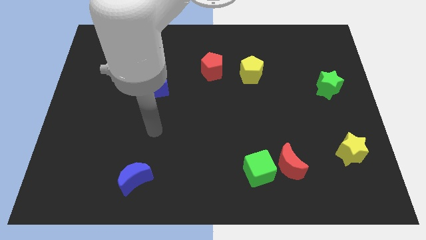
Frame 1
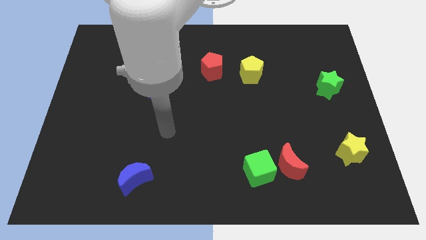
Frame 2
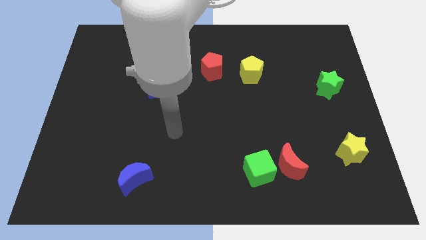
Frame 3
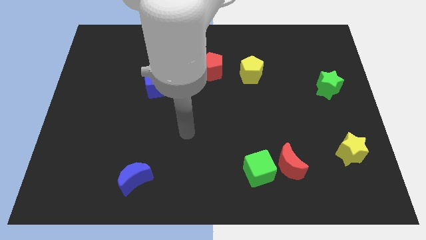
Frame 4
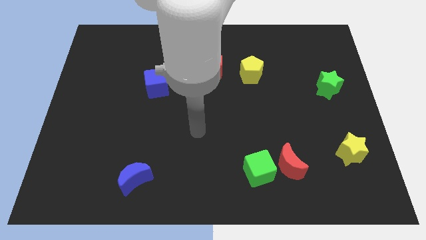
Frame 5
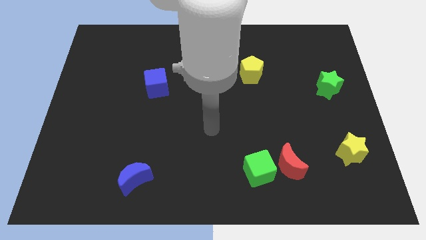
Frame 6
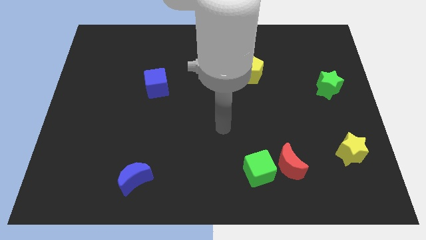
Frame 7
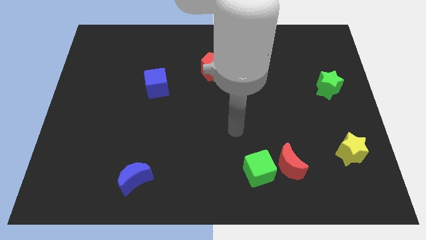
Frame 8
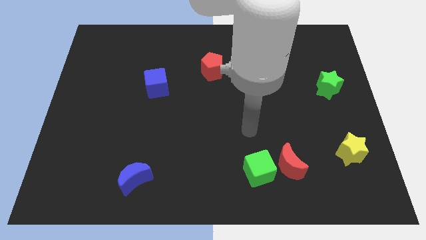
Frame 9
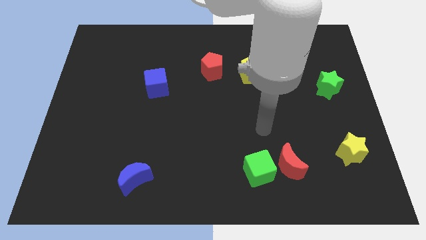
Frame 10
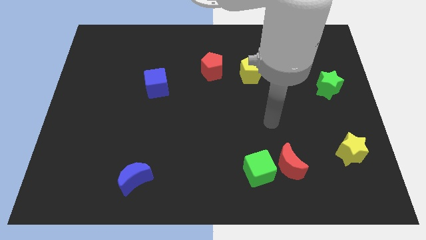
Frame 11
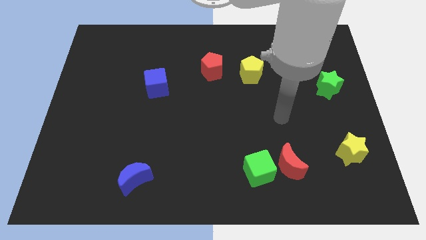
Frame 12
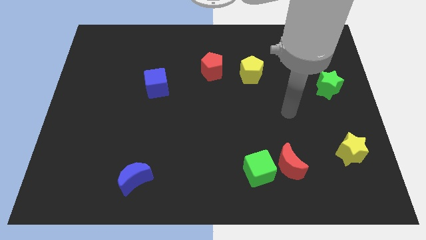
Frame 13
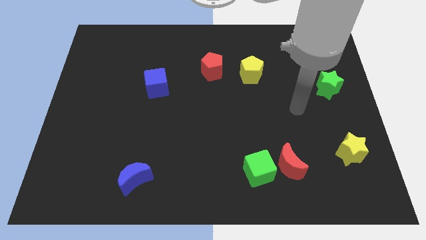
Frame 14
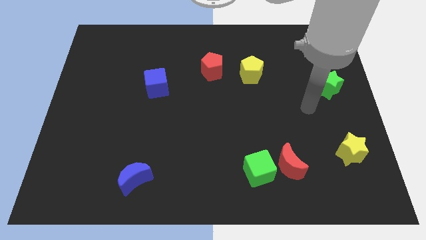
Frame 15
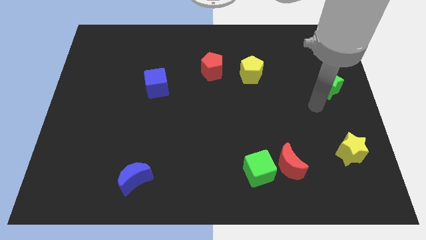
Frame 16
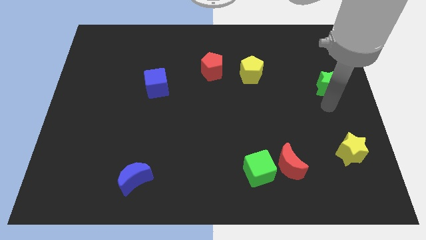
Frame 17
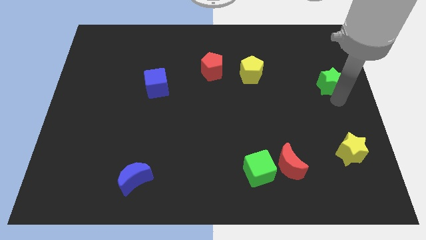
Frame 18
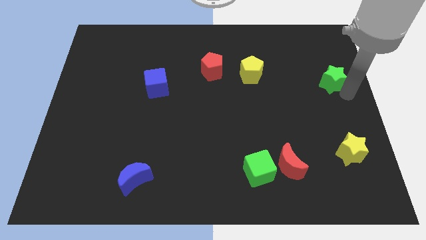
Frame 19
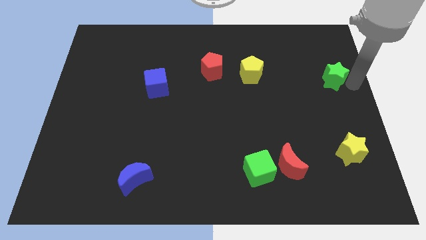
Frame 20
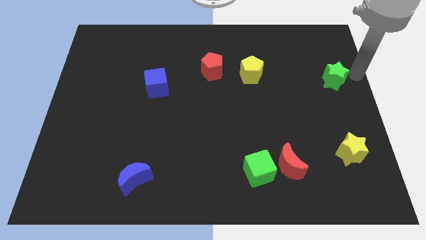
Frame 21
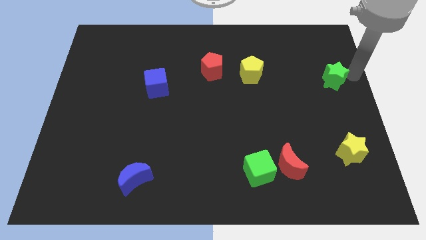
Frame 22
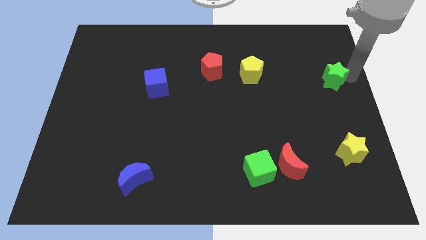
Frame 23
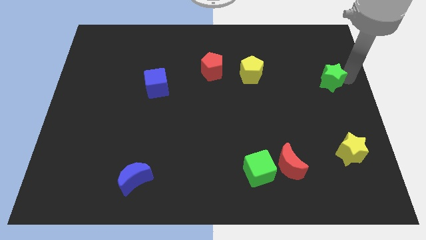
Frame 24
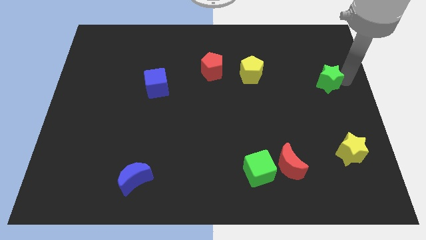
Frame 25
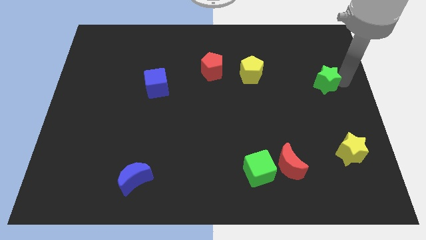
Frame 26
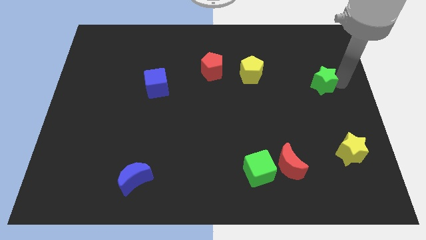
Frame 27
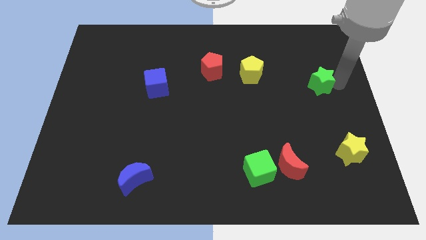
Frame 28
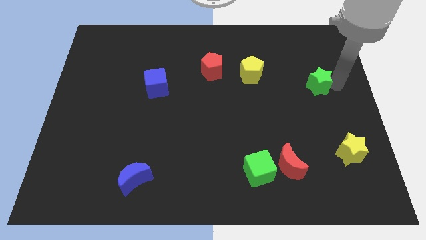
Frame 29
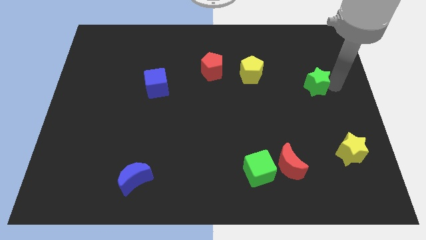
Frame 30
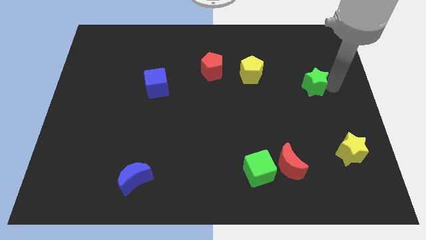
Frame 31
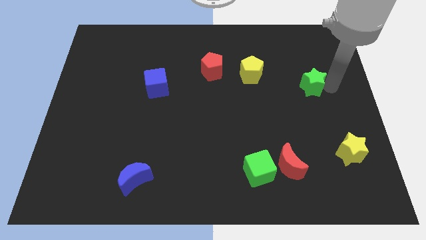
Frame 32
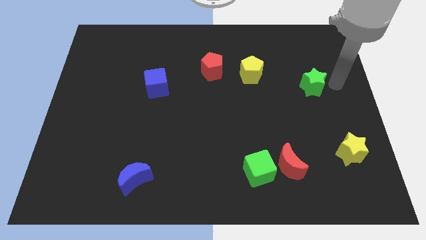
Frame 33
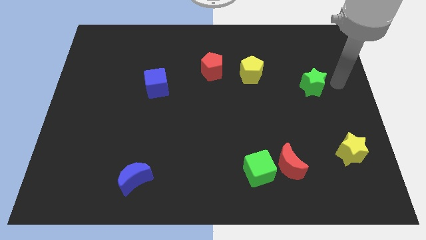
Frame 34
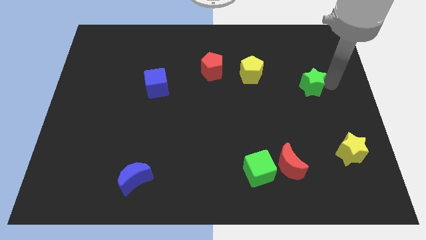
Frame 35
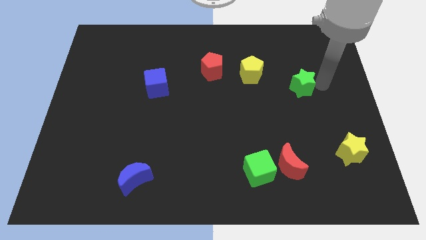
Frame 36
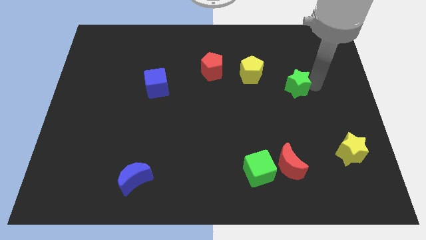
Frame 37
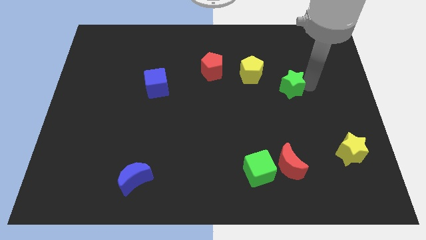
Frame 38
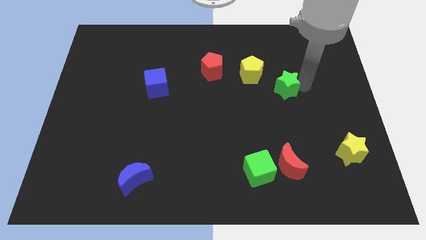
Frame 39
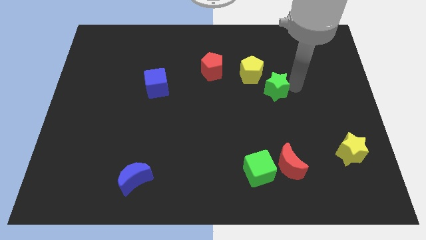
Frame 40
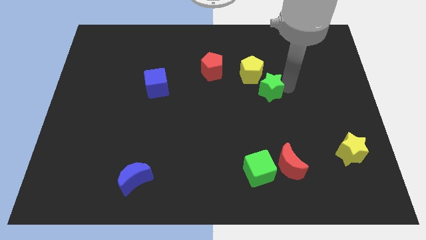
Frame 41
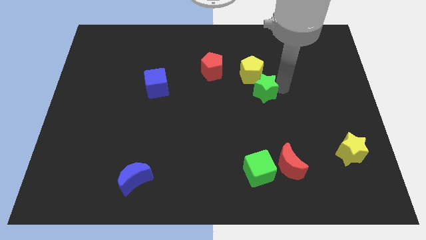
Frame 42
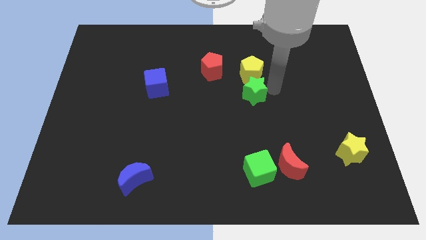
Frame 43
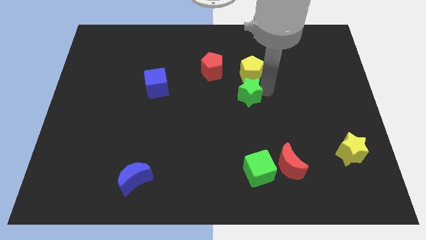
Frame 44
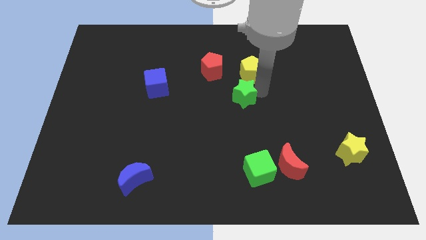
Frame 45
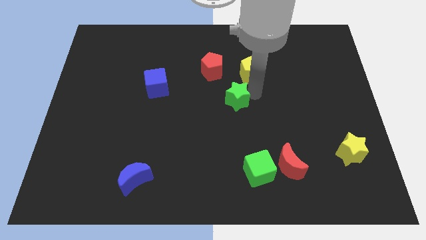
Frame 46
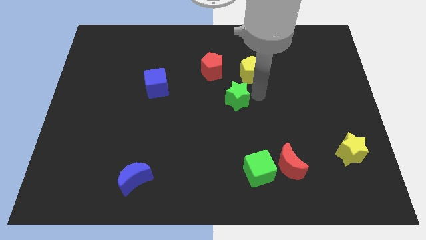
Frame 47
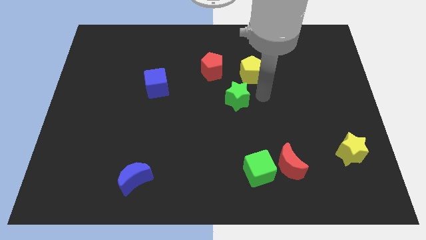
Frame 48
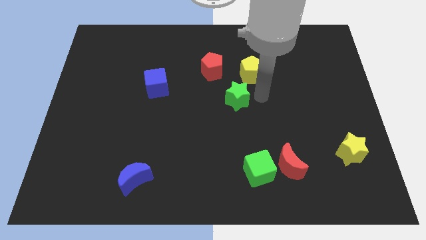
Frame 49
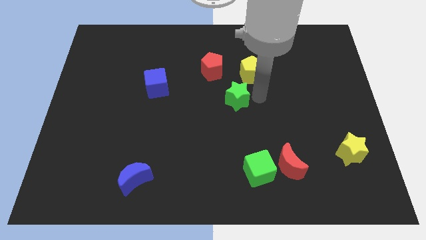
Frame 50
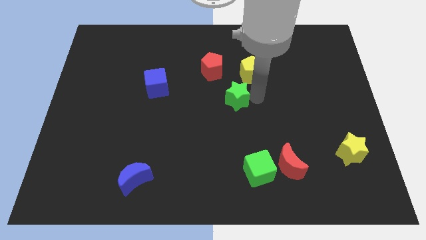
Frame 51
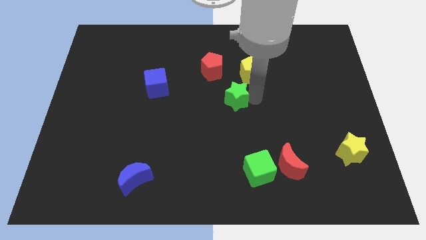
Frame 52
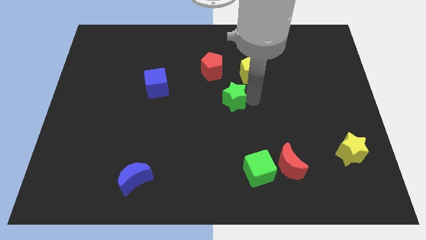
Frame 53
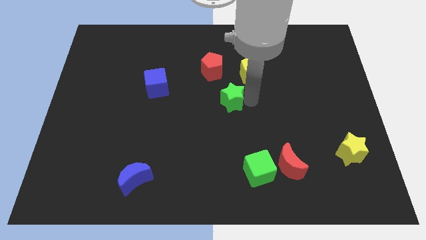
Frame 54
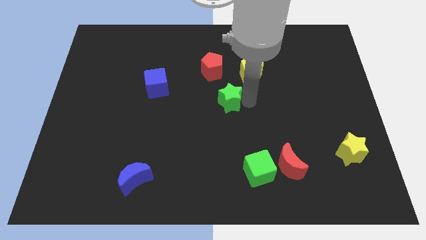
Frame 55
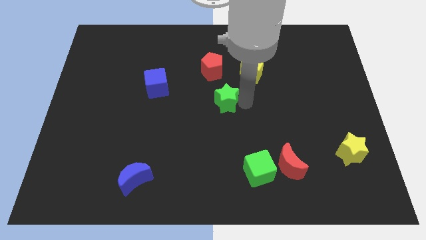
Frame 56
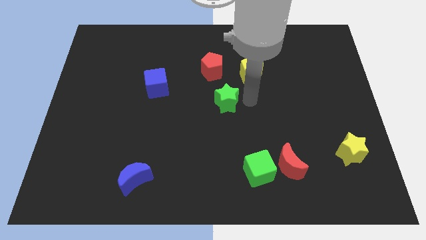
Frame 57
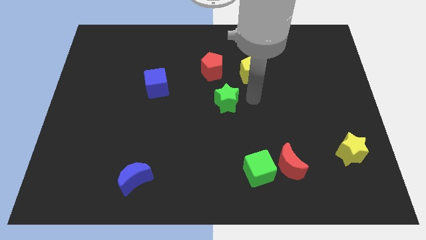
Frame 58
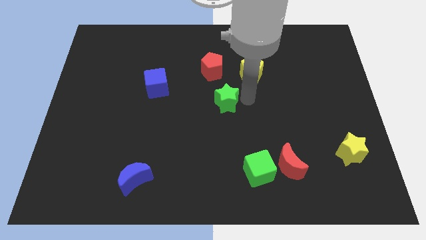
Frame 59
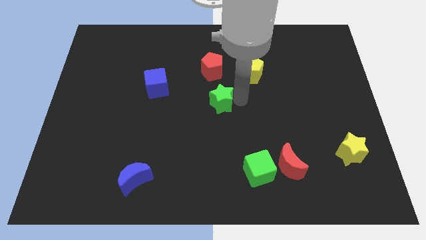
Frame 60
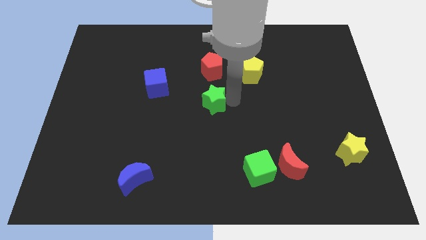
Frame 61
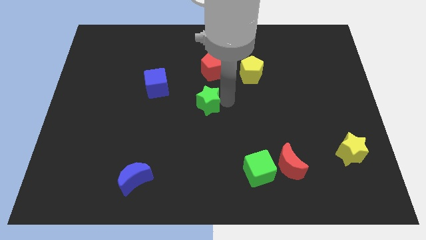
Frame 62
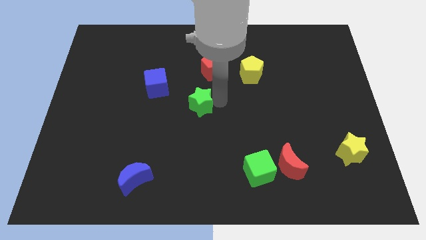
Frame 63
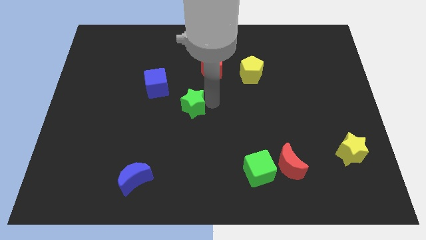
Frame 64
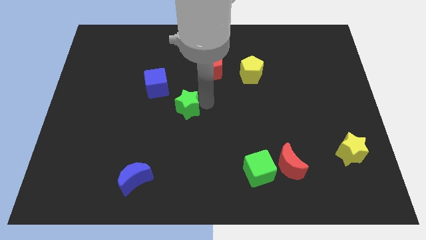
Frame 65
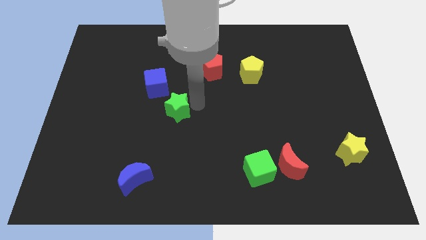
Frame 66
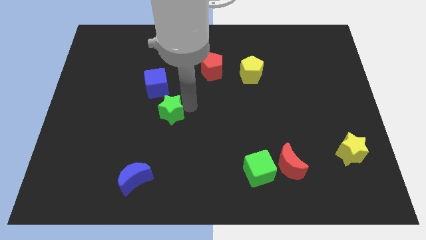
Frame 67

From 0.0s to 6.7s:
put the green star to the bottom of the blue cube

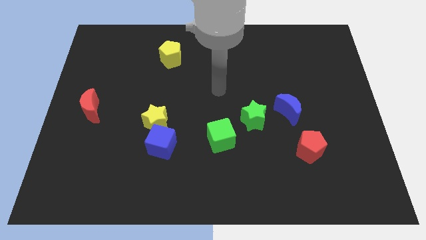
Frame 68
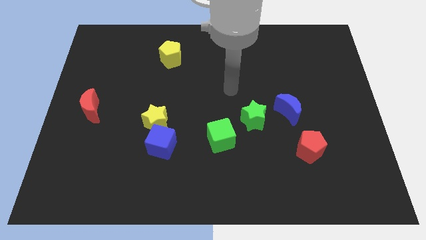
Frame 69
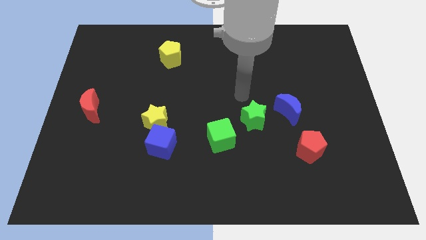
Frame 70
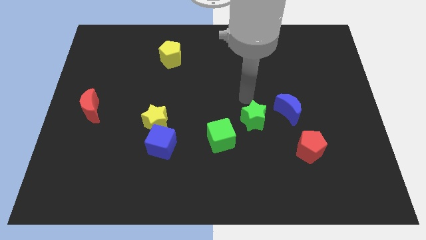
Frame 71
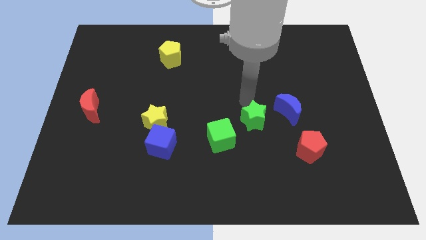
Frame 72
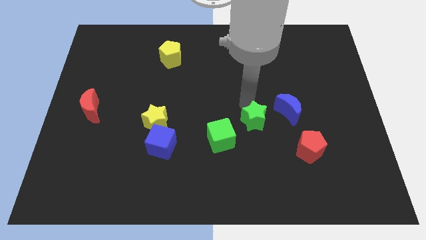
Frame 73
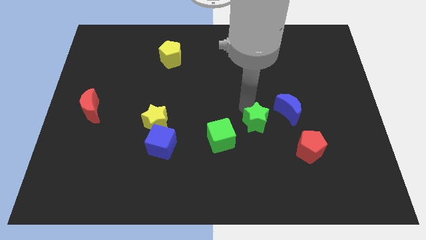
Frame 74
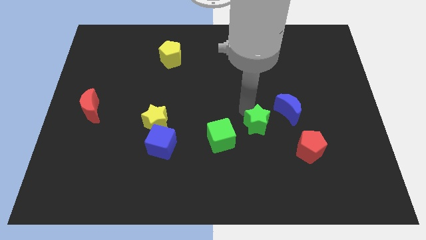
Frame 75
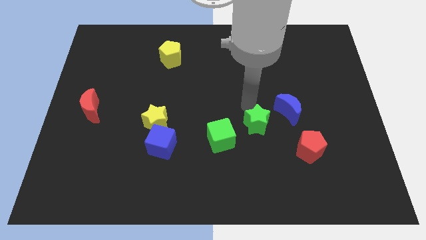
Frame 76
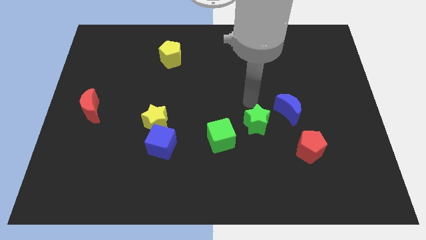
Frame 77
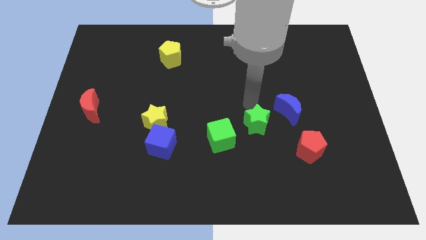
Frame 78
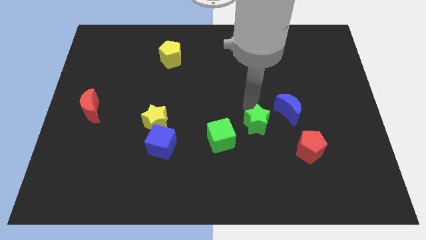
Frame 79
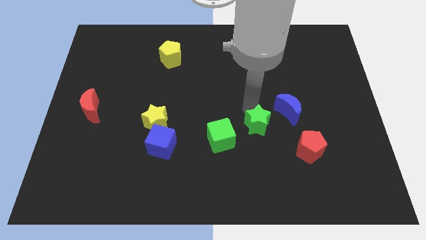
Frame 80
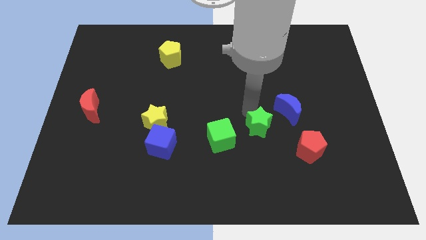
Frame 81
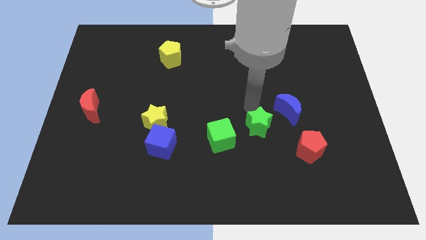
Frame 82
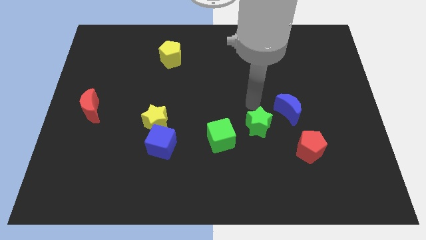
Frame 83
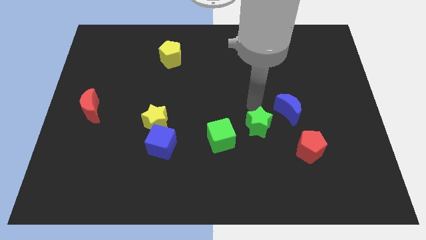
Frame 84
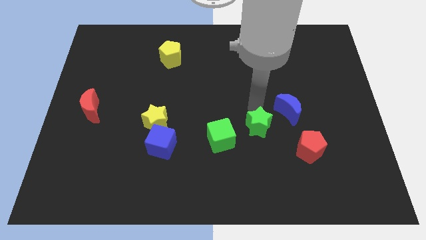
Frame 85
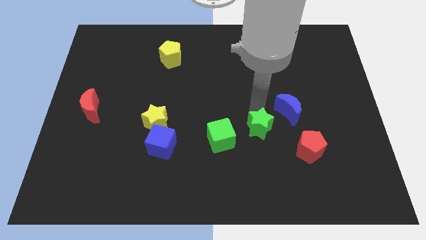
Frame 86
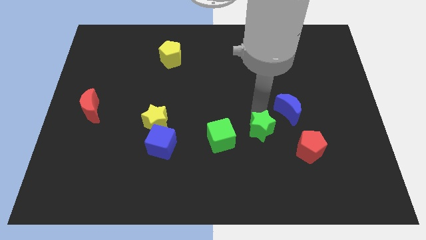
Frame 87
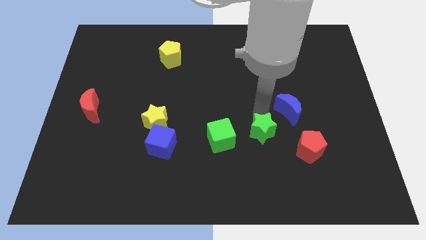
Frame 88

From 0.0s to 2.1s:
slide the green star just left of the red pentagon

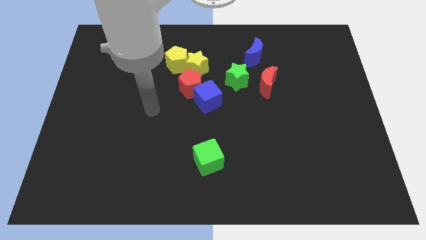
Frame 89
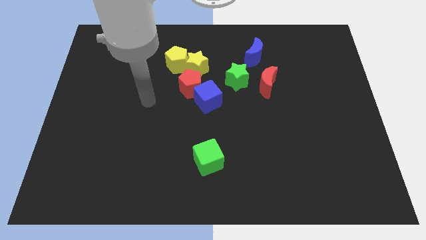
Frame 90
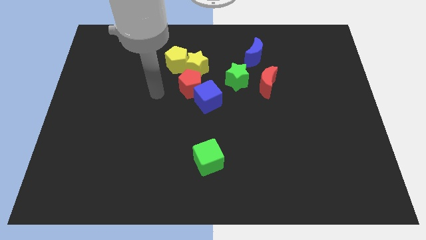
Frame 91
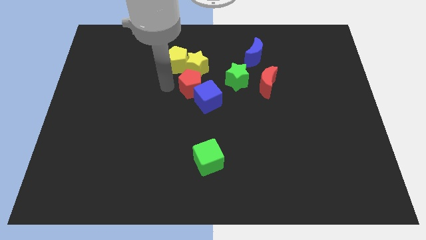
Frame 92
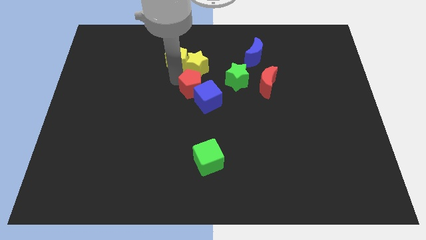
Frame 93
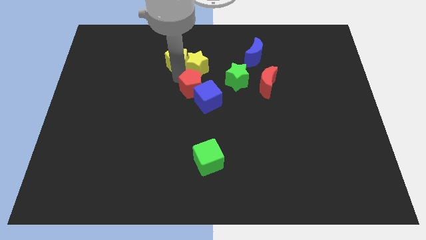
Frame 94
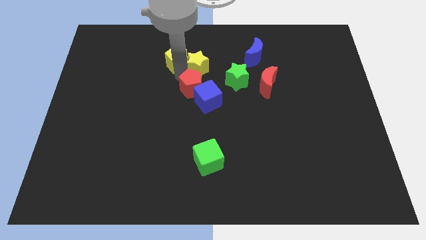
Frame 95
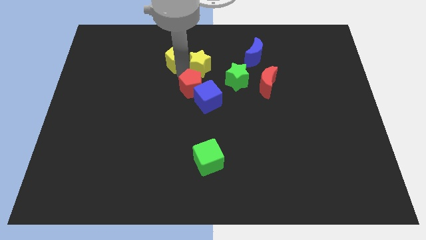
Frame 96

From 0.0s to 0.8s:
put the yellow star just left of the blue moon
